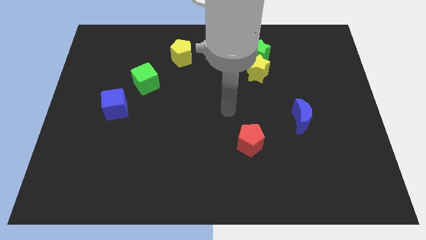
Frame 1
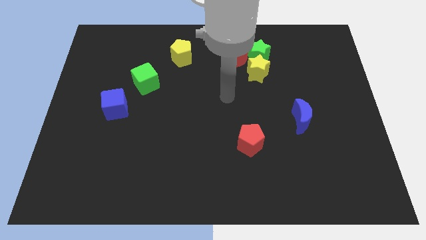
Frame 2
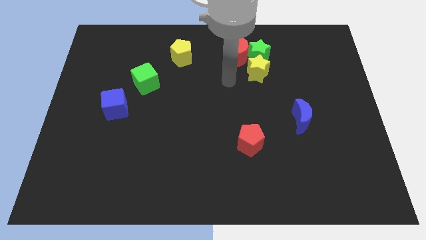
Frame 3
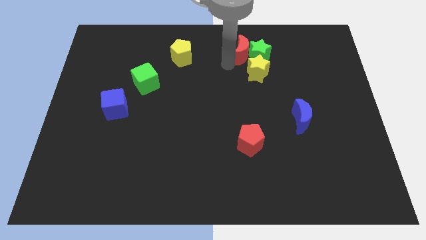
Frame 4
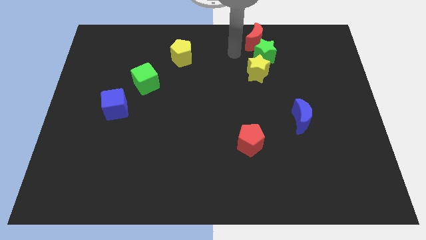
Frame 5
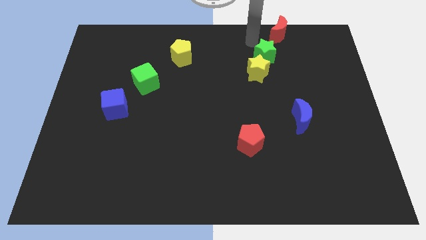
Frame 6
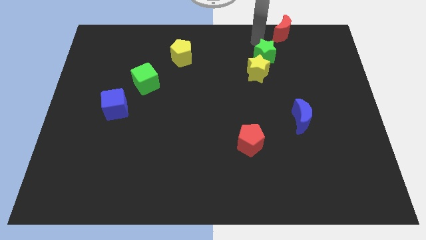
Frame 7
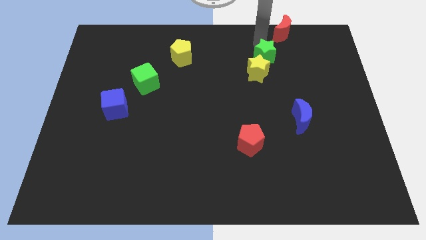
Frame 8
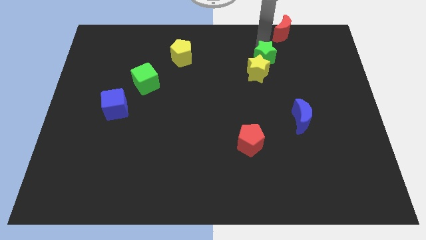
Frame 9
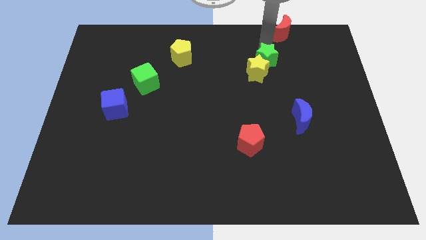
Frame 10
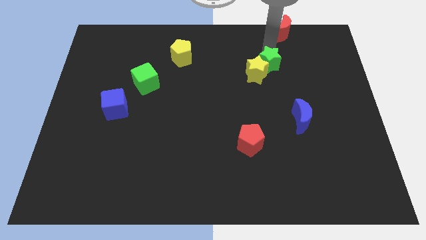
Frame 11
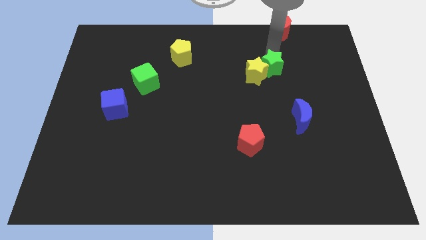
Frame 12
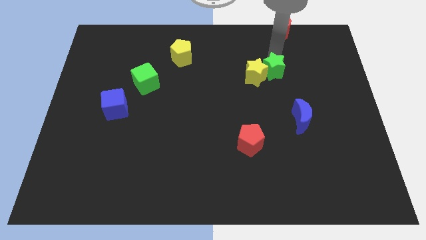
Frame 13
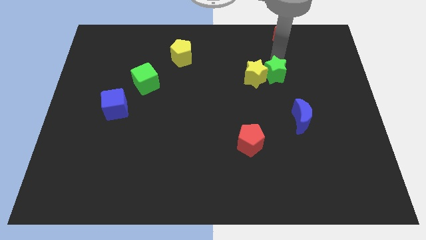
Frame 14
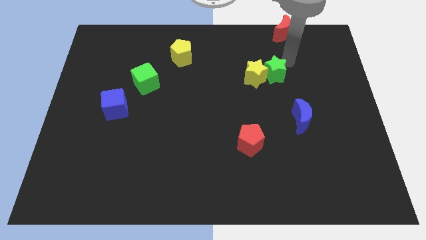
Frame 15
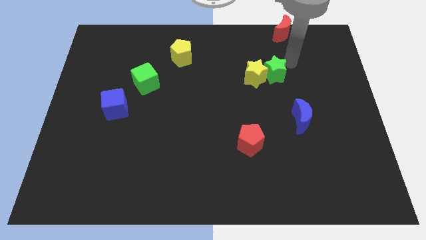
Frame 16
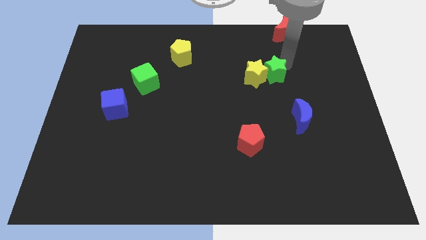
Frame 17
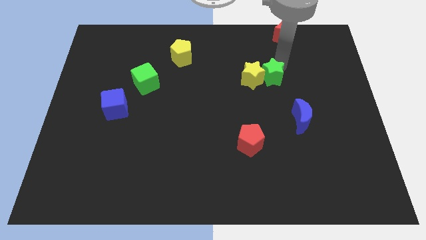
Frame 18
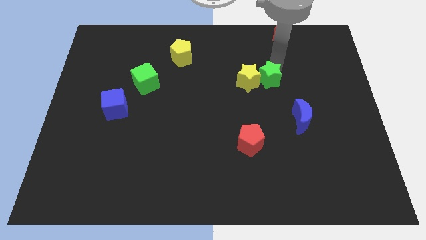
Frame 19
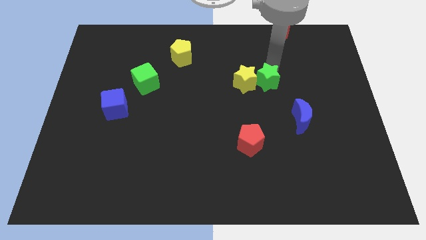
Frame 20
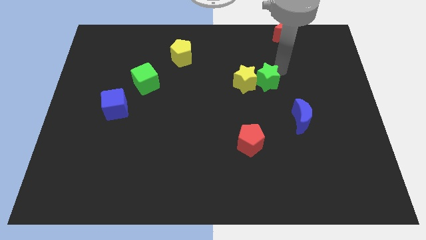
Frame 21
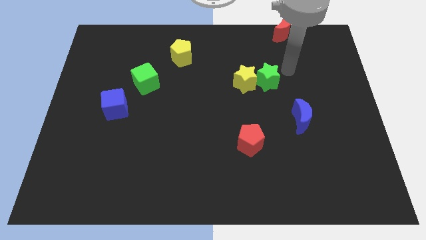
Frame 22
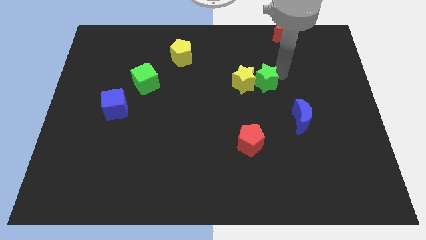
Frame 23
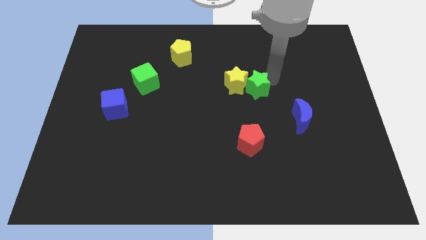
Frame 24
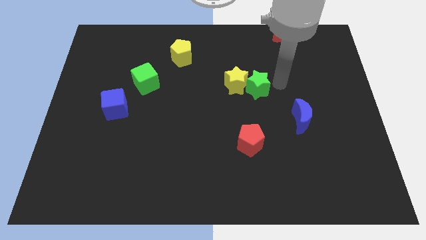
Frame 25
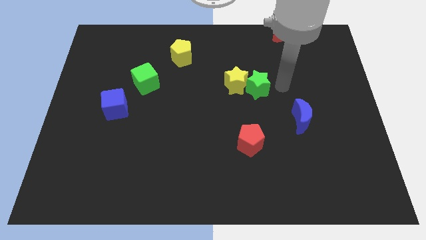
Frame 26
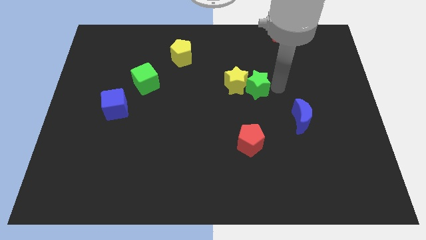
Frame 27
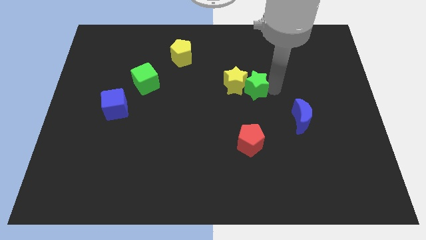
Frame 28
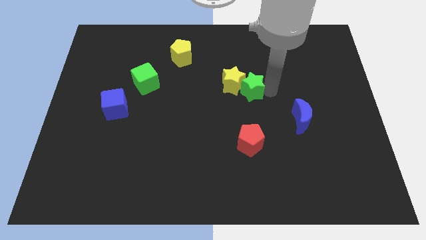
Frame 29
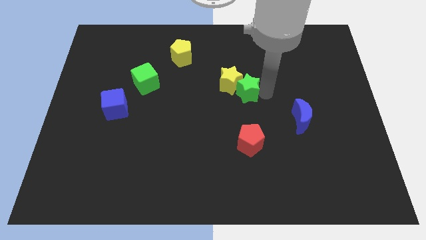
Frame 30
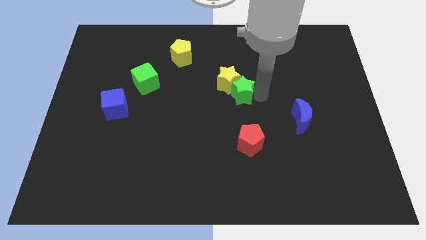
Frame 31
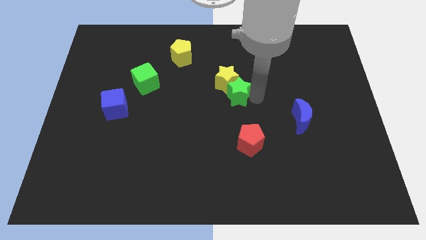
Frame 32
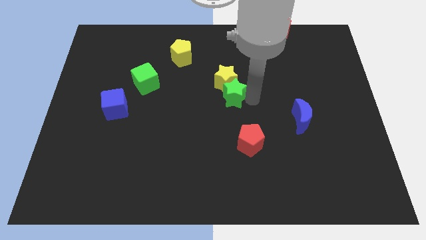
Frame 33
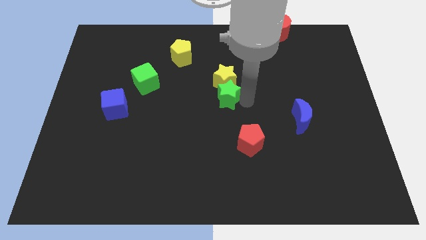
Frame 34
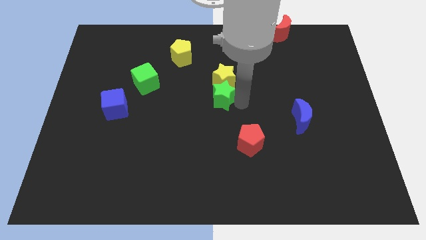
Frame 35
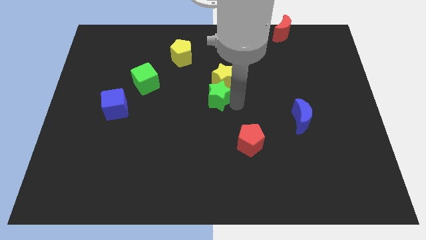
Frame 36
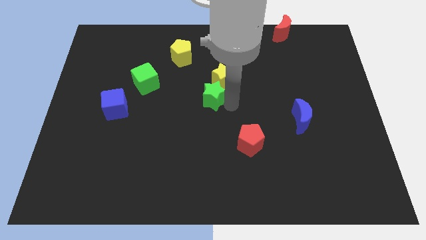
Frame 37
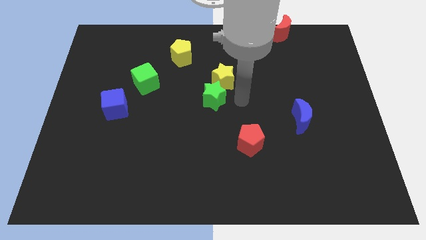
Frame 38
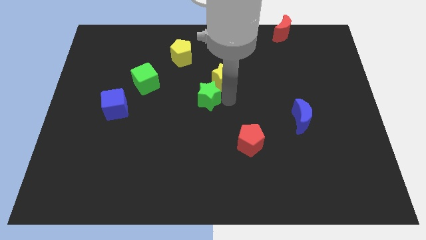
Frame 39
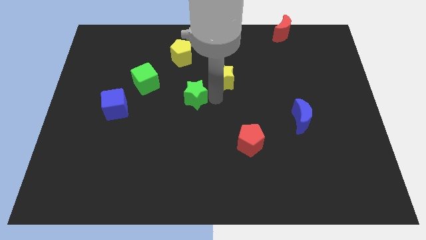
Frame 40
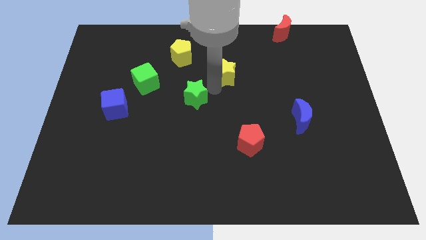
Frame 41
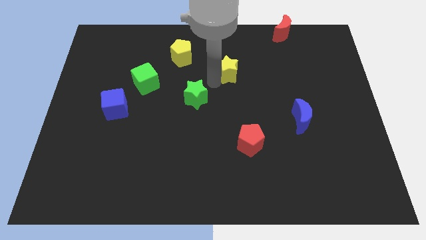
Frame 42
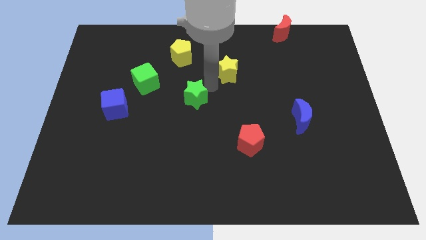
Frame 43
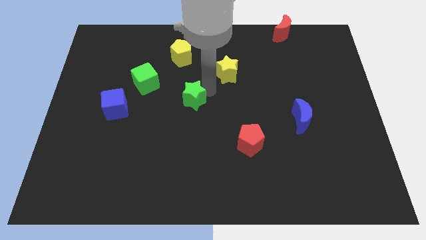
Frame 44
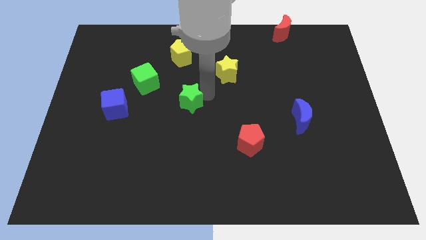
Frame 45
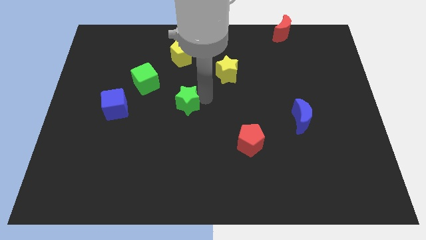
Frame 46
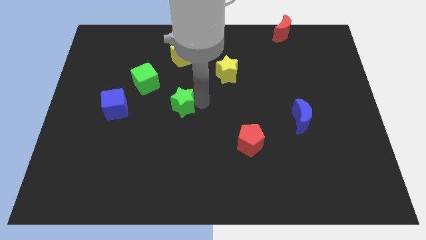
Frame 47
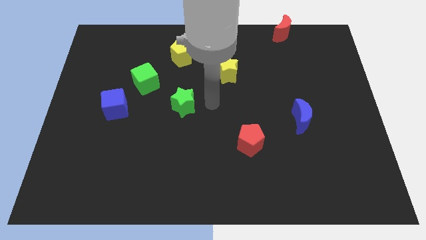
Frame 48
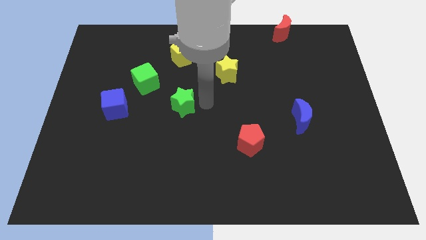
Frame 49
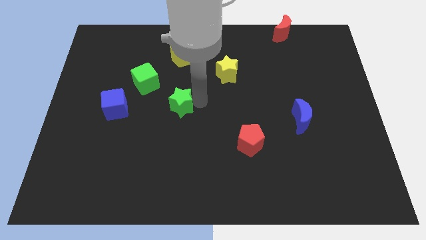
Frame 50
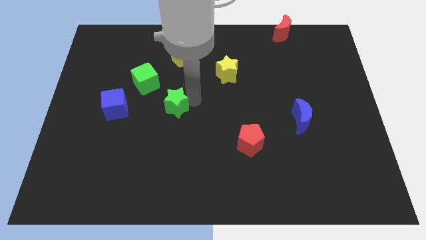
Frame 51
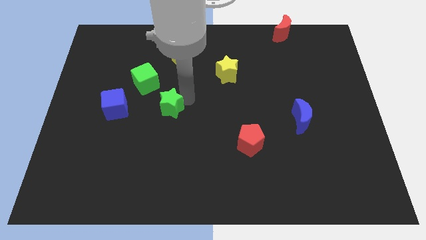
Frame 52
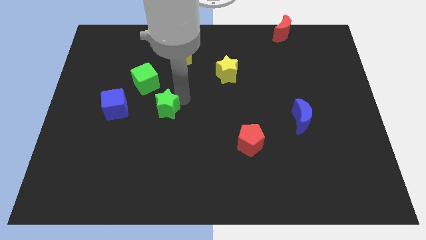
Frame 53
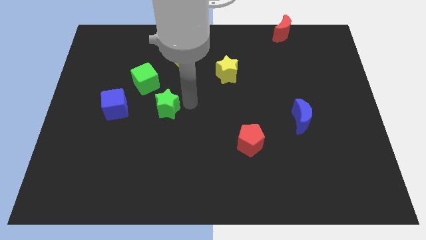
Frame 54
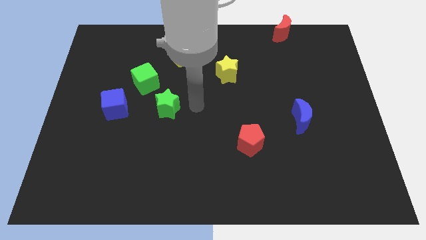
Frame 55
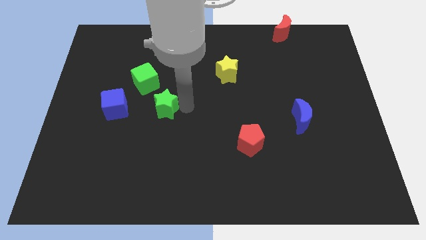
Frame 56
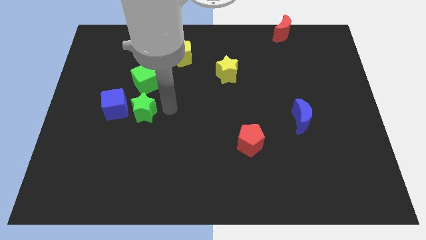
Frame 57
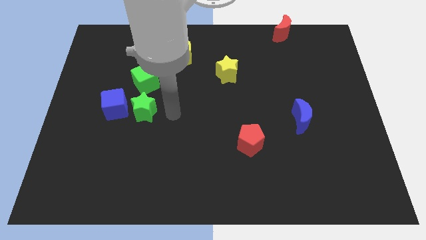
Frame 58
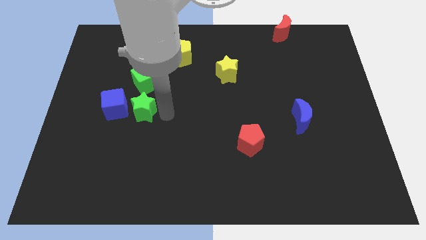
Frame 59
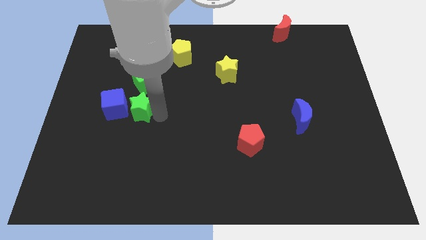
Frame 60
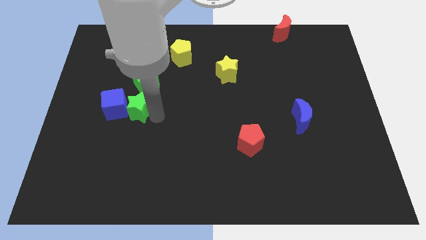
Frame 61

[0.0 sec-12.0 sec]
slide the green star close to the blue cube

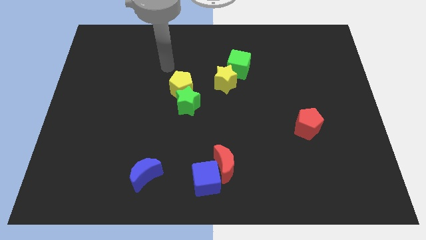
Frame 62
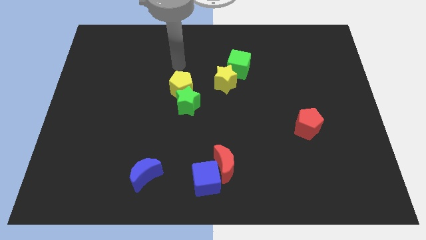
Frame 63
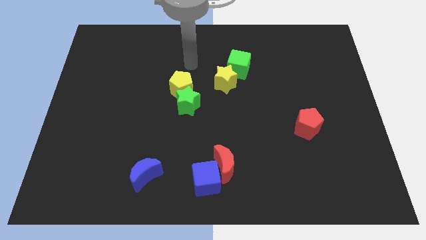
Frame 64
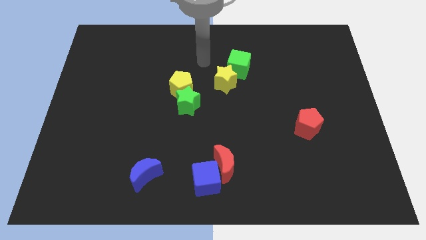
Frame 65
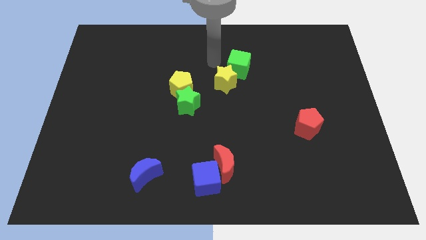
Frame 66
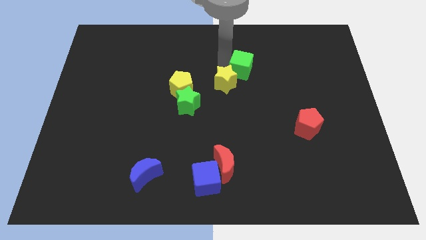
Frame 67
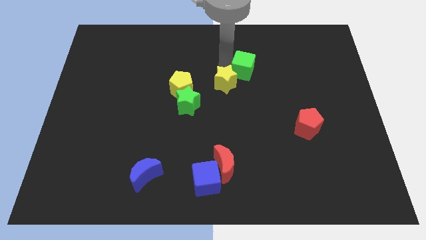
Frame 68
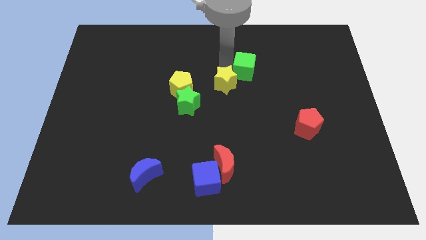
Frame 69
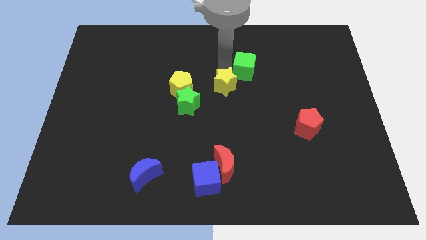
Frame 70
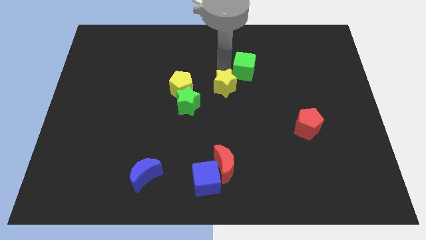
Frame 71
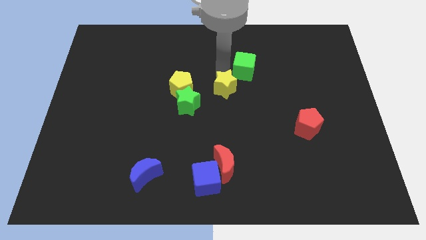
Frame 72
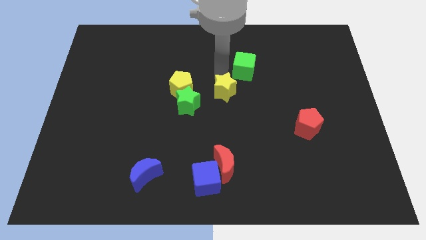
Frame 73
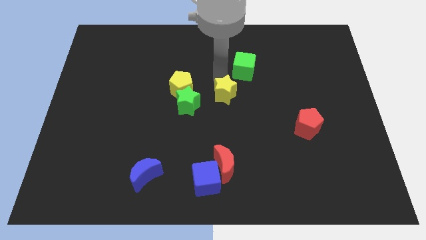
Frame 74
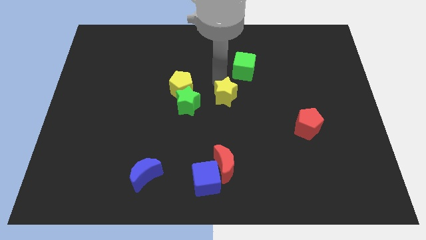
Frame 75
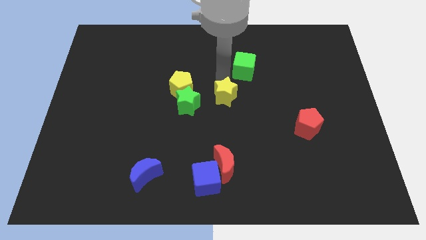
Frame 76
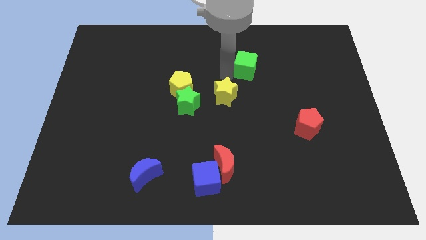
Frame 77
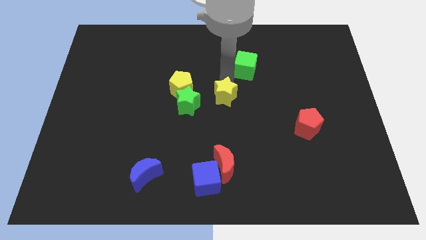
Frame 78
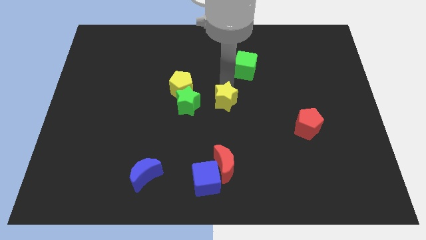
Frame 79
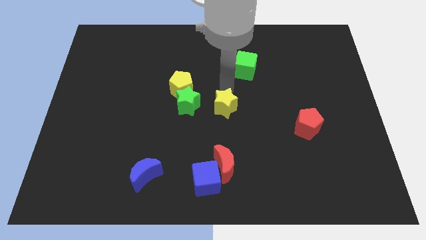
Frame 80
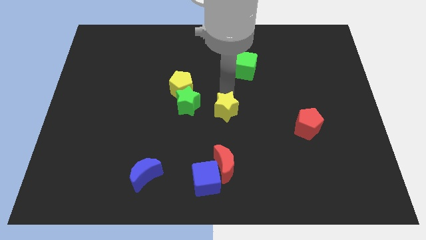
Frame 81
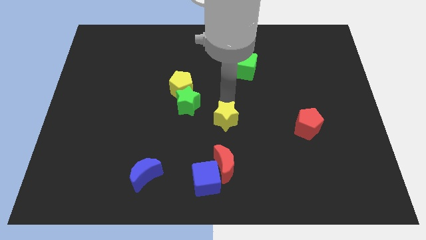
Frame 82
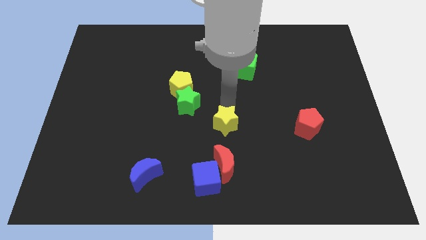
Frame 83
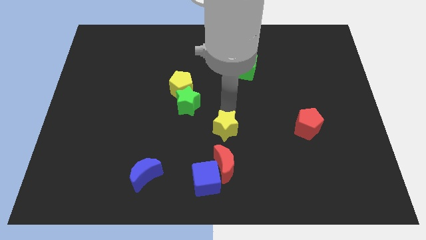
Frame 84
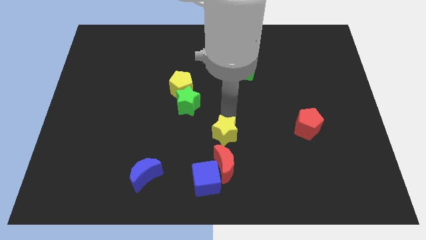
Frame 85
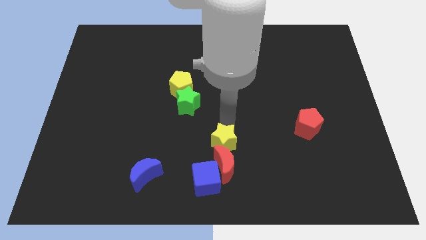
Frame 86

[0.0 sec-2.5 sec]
put the yellow star towards the red moon

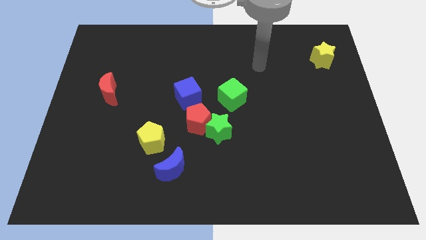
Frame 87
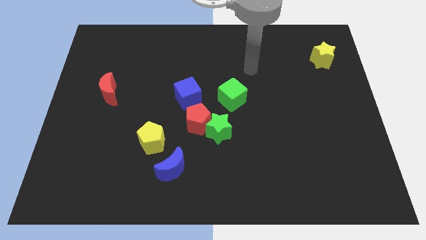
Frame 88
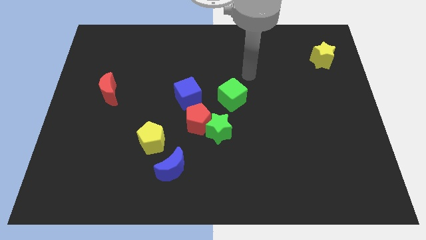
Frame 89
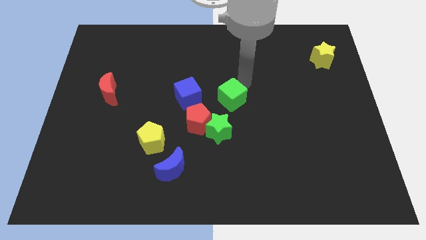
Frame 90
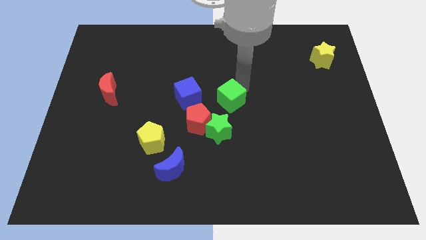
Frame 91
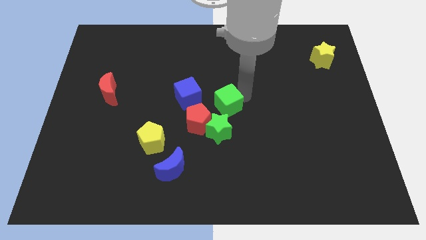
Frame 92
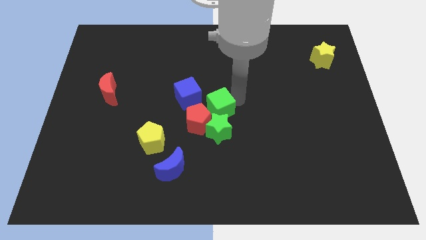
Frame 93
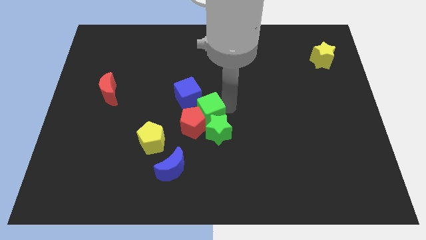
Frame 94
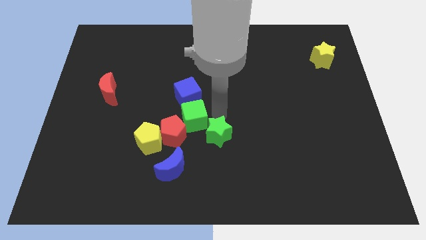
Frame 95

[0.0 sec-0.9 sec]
move the red pentagon next to the yellow pentagon
